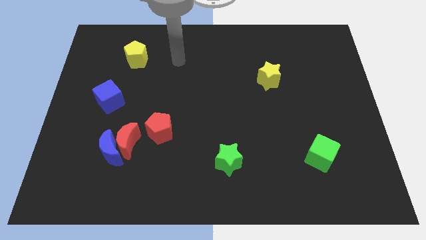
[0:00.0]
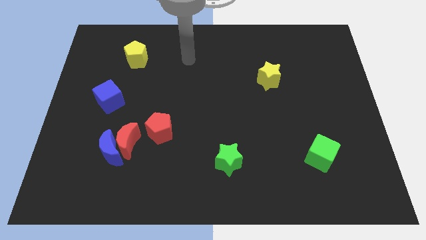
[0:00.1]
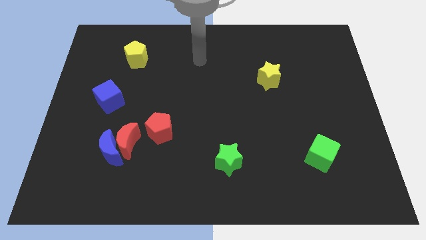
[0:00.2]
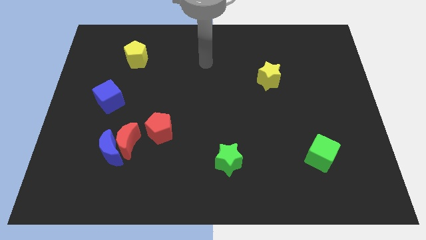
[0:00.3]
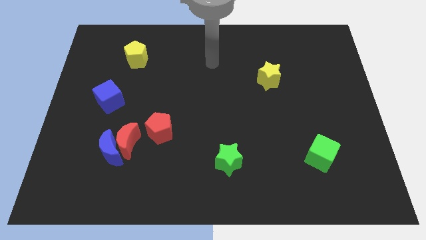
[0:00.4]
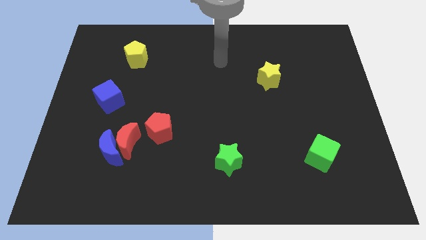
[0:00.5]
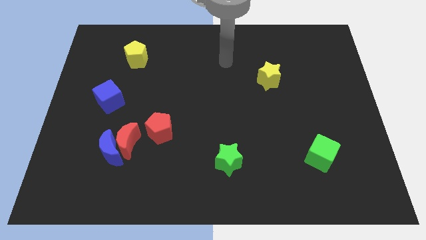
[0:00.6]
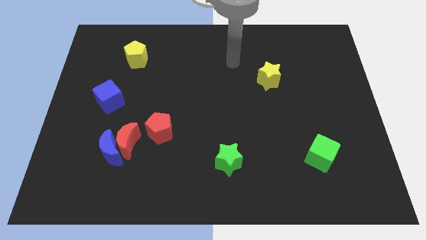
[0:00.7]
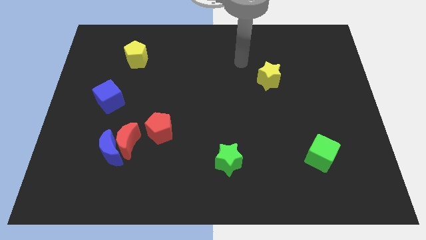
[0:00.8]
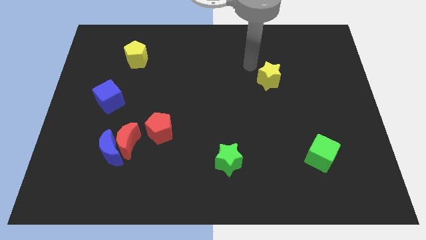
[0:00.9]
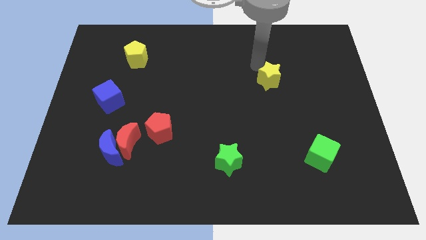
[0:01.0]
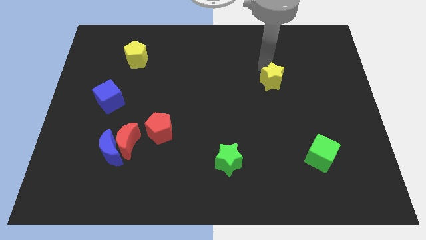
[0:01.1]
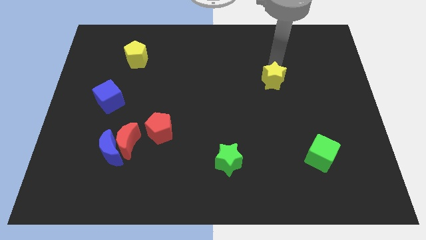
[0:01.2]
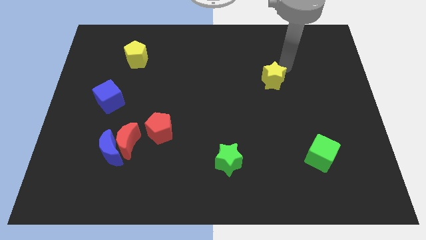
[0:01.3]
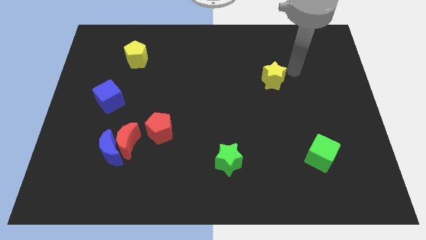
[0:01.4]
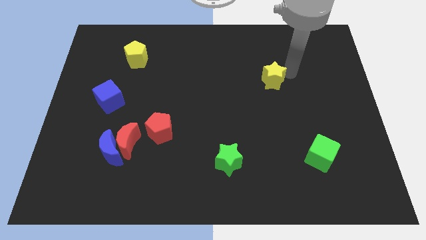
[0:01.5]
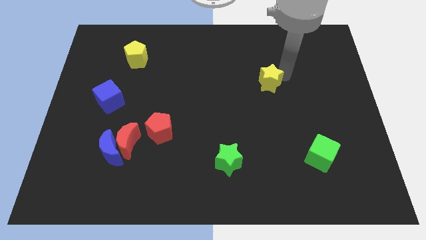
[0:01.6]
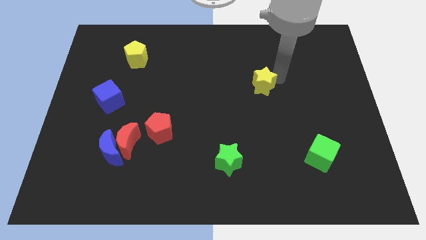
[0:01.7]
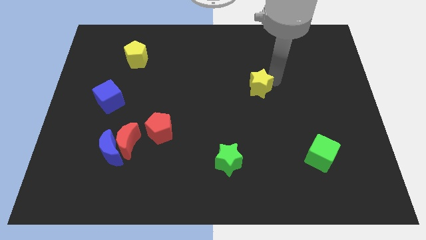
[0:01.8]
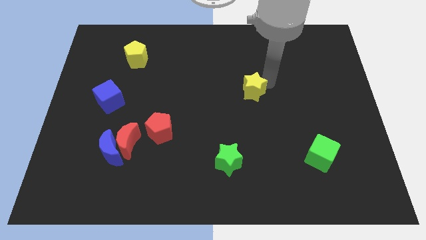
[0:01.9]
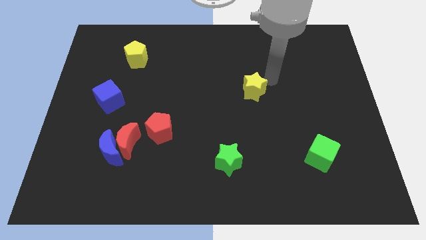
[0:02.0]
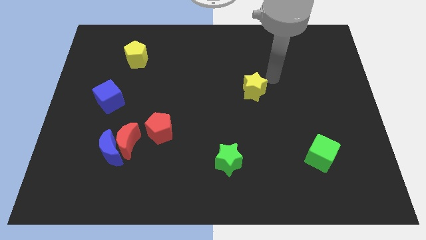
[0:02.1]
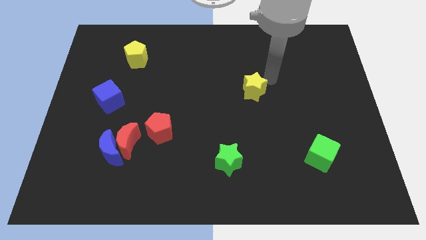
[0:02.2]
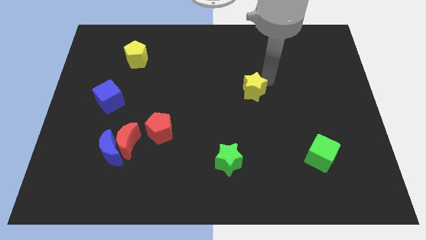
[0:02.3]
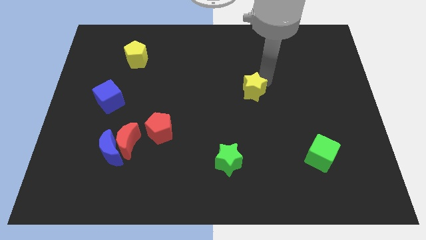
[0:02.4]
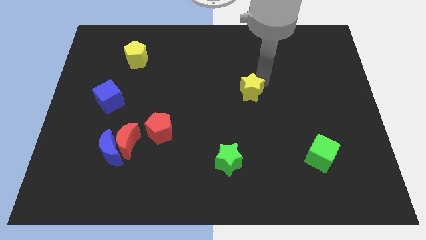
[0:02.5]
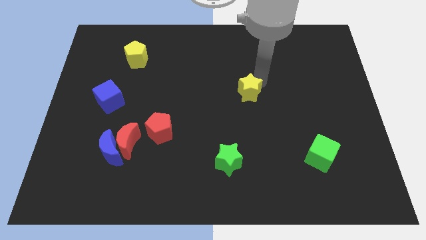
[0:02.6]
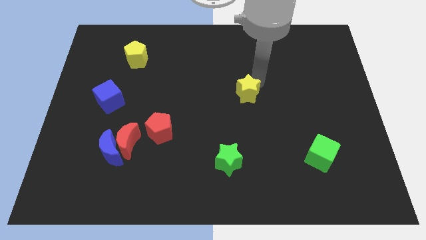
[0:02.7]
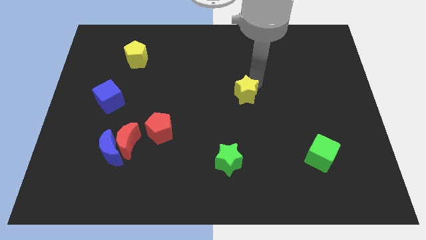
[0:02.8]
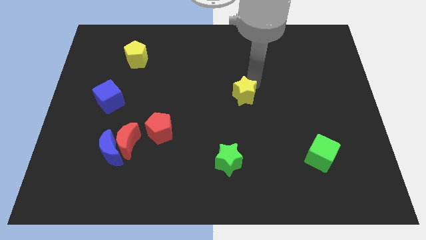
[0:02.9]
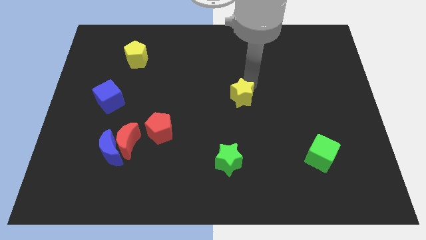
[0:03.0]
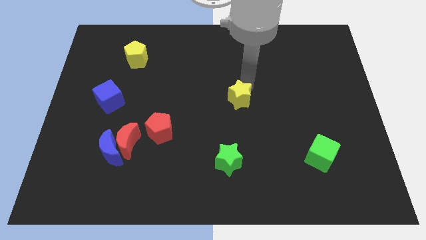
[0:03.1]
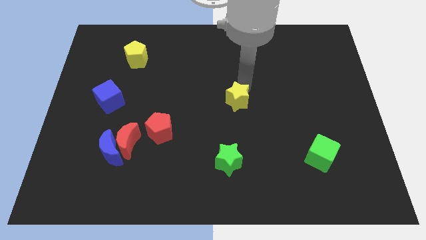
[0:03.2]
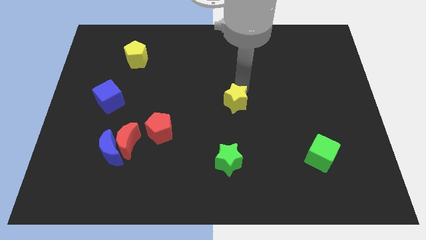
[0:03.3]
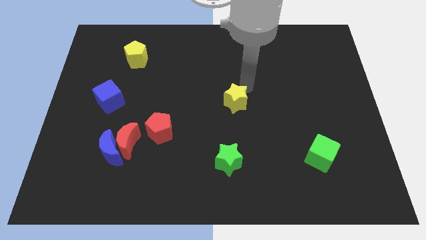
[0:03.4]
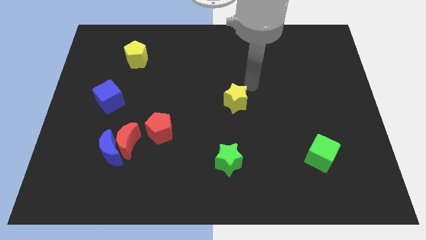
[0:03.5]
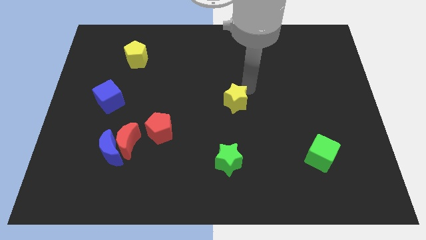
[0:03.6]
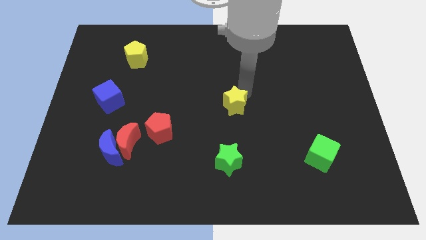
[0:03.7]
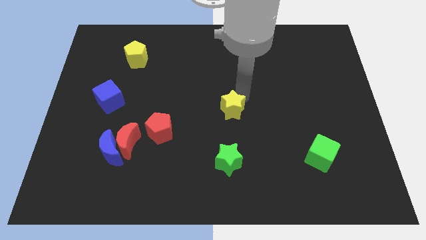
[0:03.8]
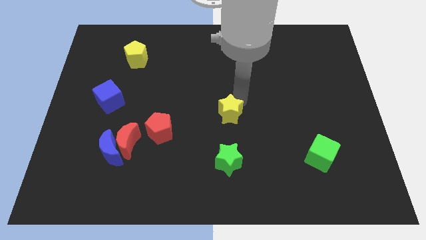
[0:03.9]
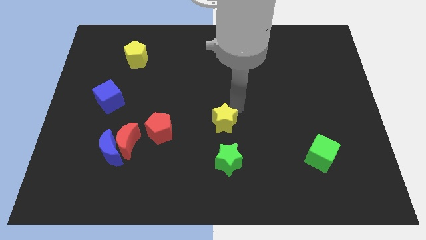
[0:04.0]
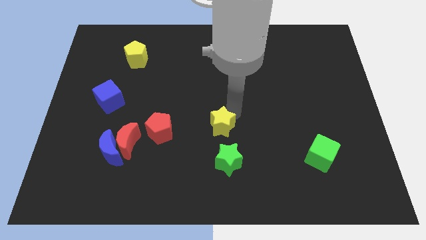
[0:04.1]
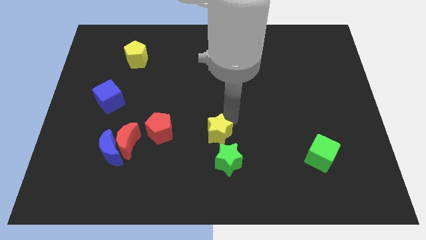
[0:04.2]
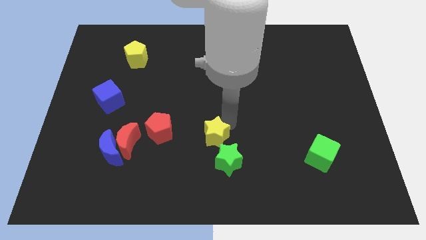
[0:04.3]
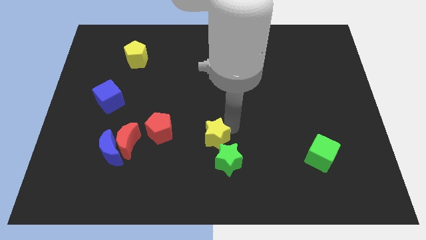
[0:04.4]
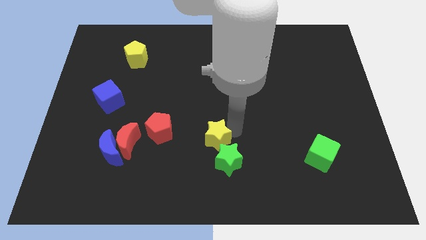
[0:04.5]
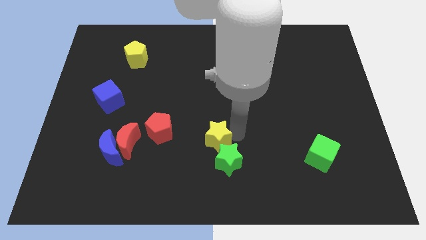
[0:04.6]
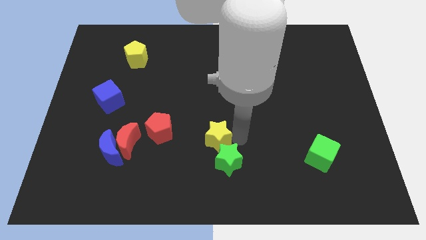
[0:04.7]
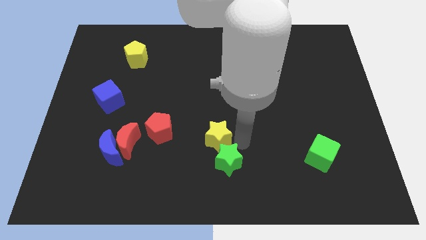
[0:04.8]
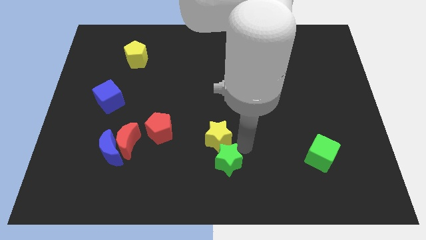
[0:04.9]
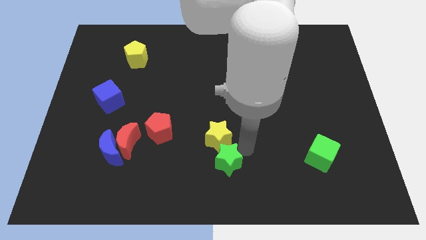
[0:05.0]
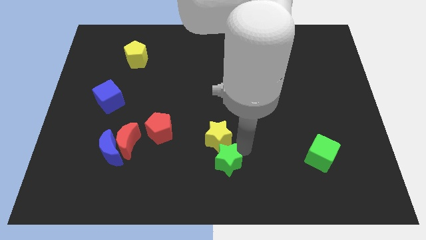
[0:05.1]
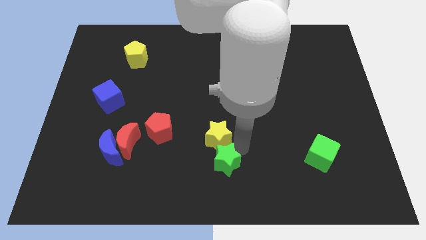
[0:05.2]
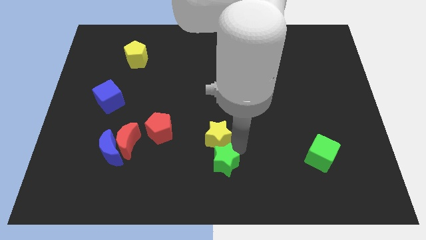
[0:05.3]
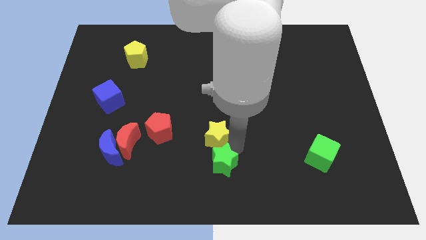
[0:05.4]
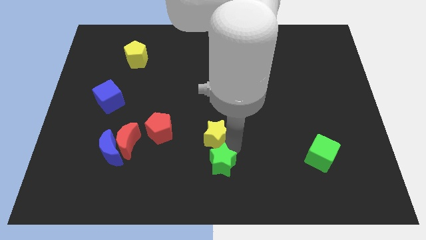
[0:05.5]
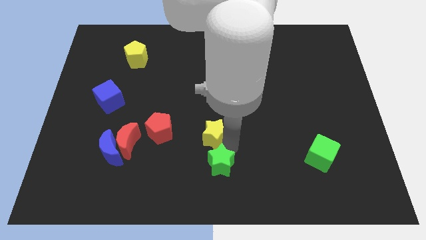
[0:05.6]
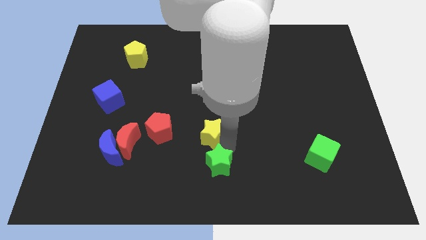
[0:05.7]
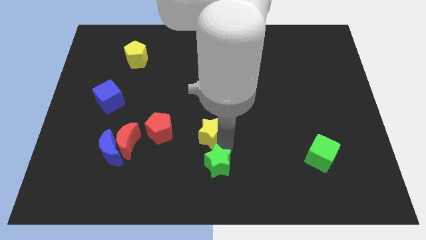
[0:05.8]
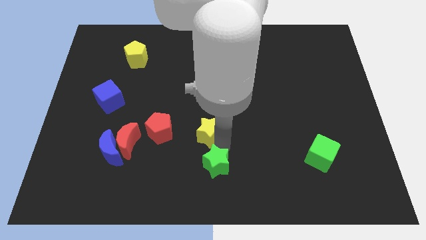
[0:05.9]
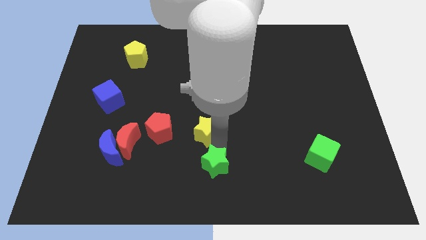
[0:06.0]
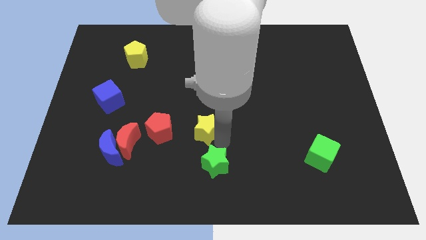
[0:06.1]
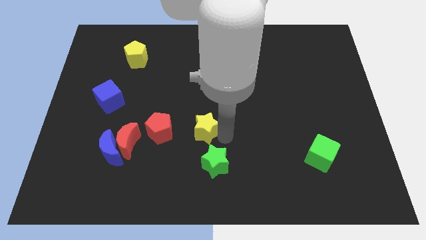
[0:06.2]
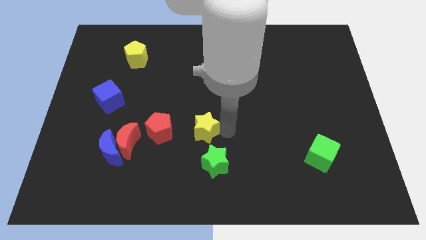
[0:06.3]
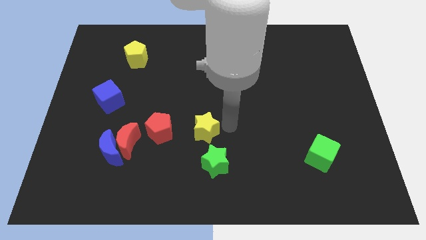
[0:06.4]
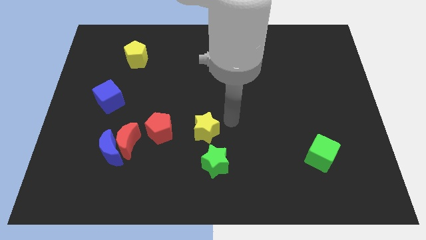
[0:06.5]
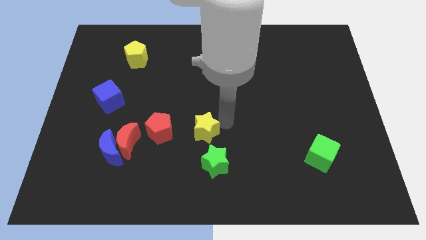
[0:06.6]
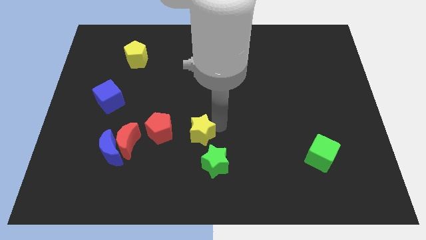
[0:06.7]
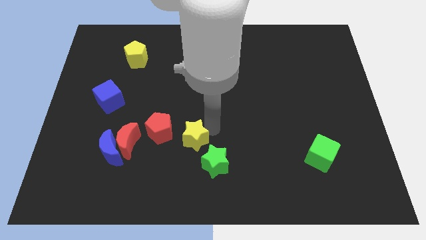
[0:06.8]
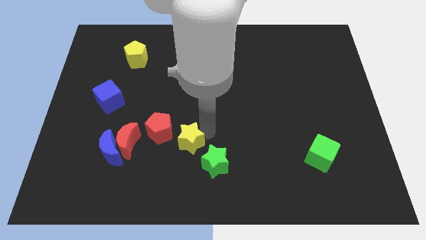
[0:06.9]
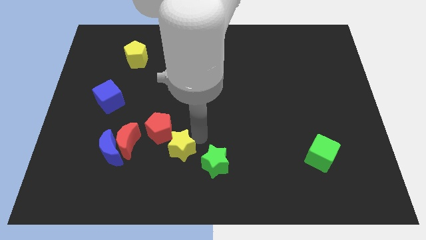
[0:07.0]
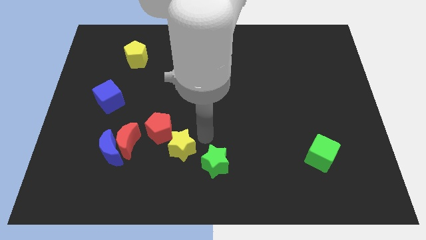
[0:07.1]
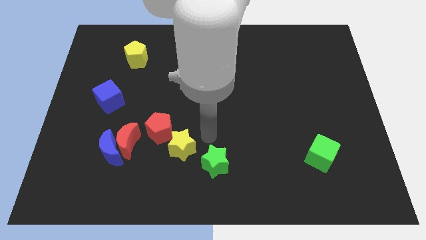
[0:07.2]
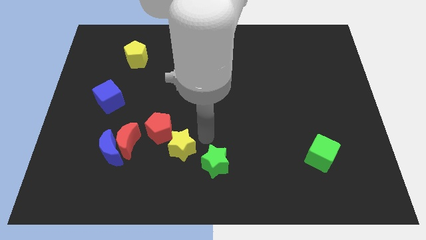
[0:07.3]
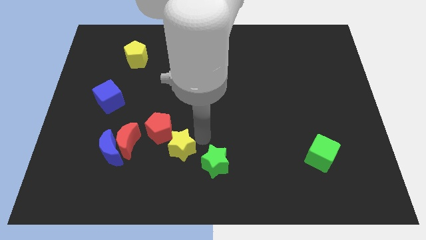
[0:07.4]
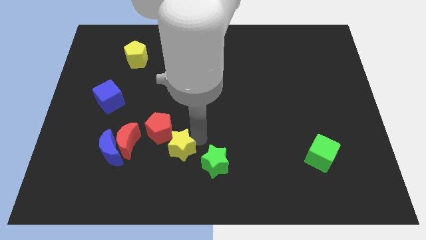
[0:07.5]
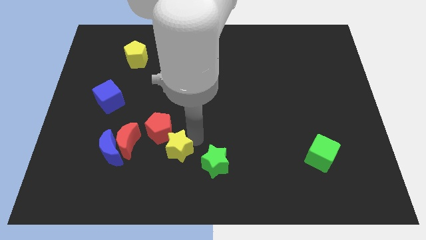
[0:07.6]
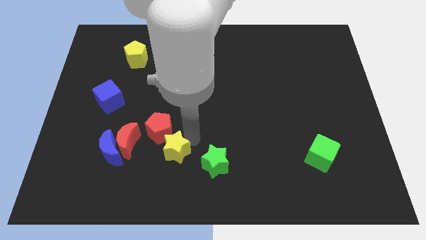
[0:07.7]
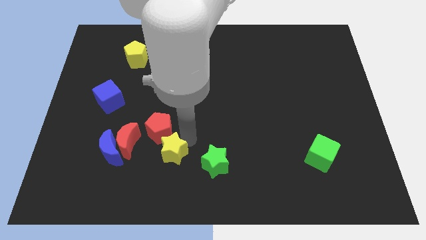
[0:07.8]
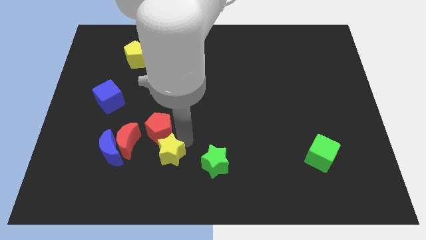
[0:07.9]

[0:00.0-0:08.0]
push the yellow star to the bottom right side of the red moon
